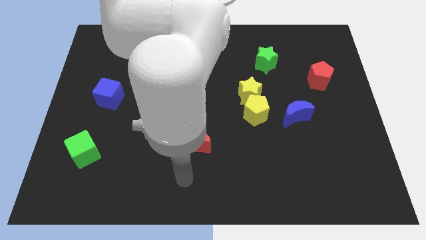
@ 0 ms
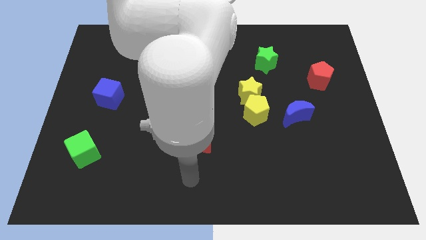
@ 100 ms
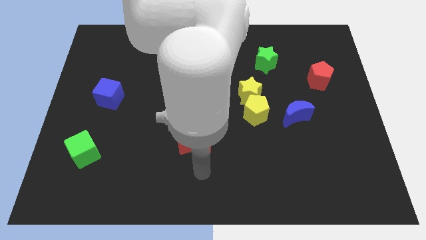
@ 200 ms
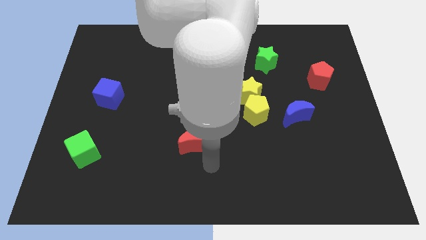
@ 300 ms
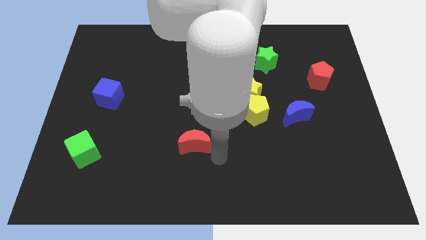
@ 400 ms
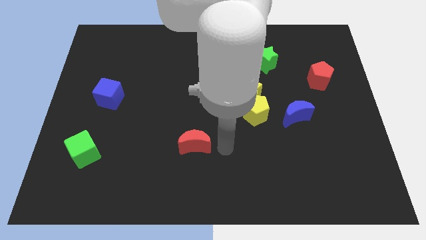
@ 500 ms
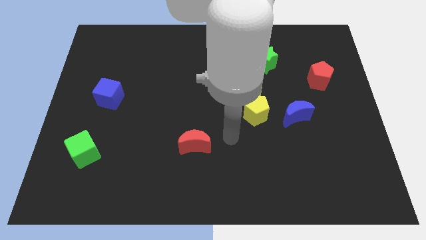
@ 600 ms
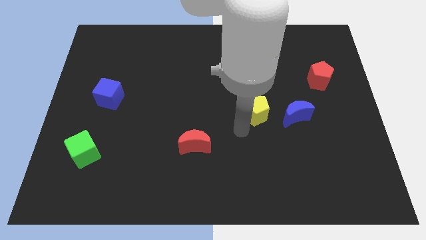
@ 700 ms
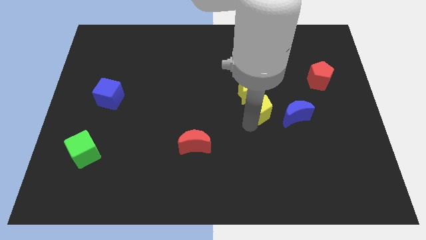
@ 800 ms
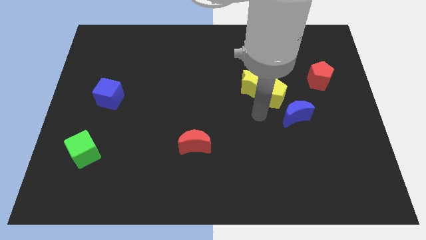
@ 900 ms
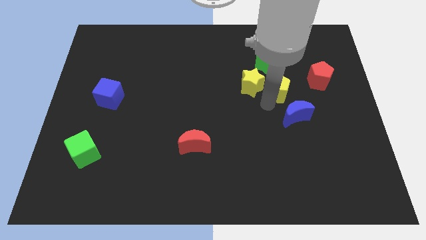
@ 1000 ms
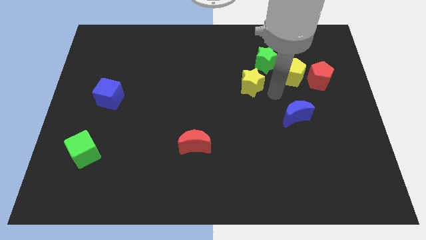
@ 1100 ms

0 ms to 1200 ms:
separate the yellow star from the yellow pentagon

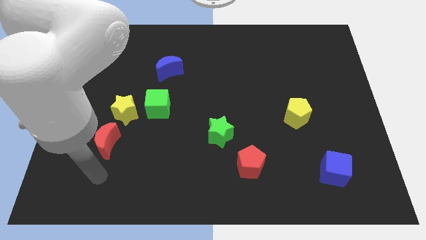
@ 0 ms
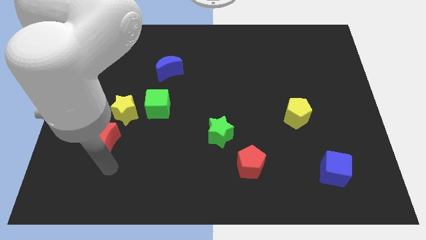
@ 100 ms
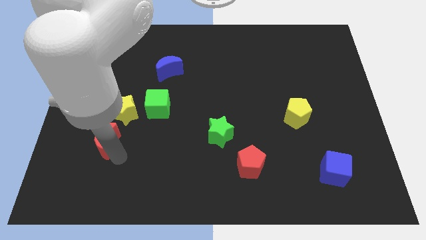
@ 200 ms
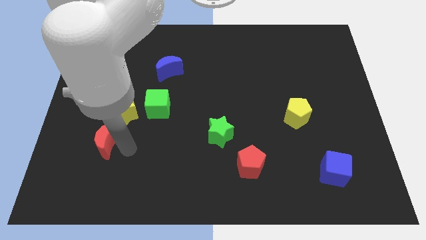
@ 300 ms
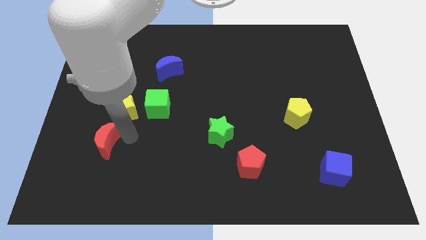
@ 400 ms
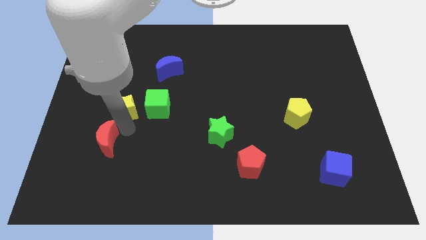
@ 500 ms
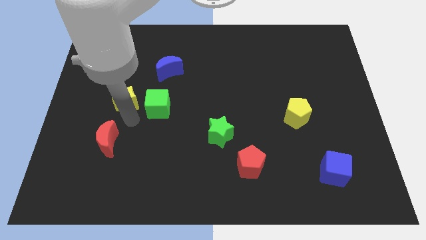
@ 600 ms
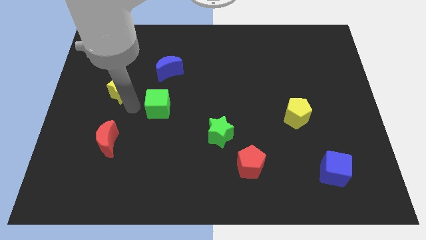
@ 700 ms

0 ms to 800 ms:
separate the green cube from the yellow star

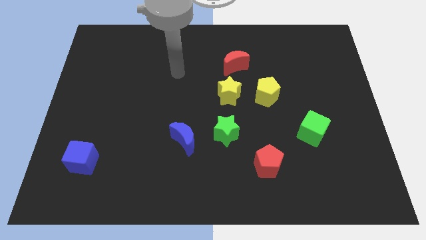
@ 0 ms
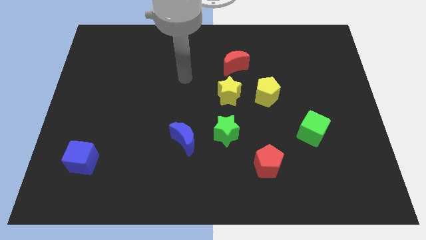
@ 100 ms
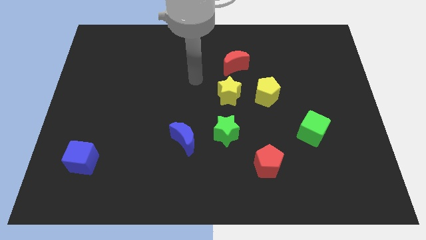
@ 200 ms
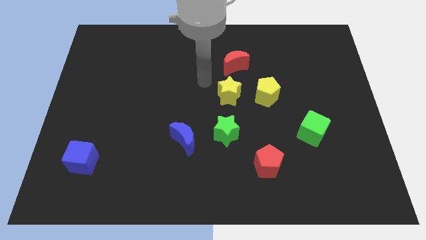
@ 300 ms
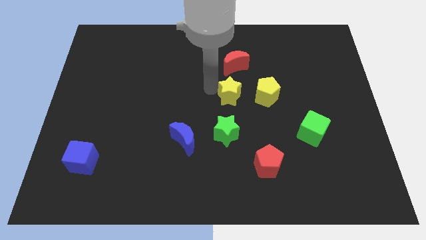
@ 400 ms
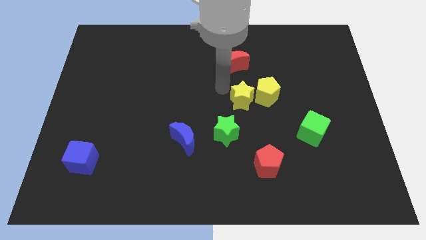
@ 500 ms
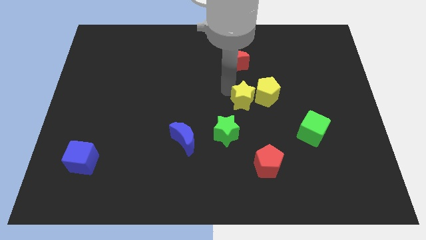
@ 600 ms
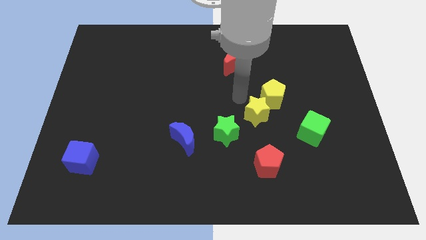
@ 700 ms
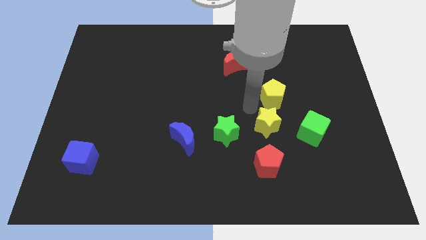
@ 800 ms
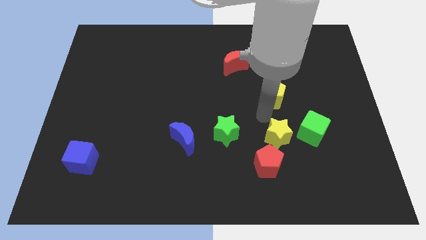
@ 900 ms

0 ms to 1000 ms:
separate the yellow pentagon from the yellow star

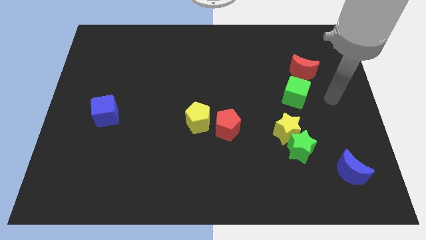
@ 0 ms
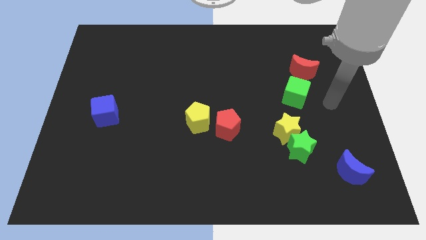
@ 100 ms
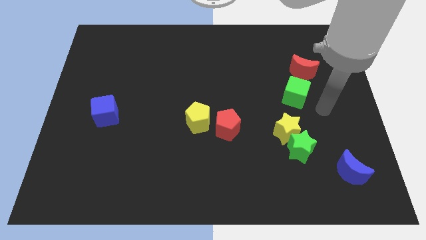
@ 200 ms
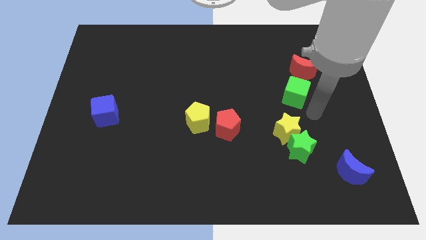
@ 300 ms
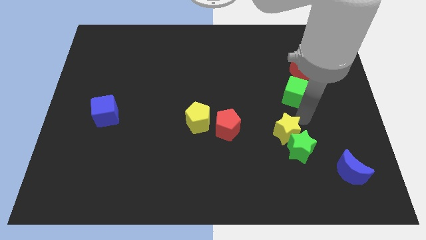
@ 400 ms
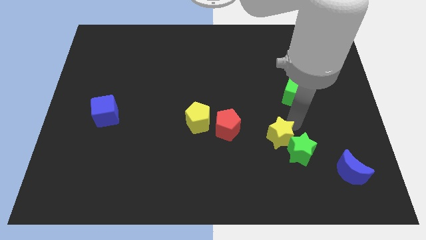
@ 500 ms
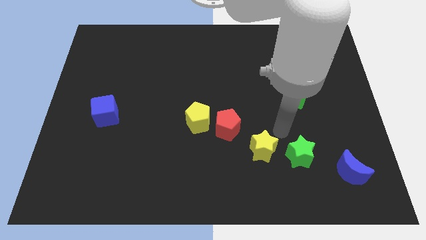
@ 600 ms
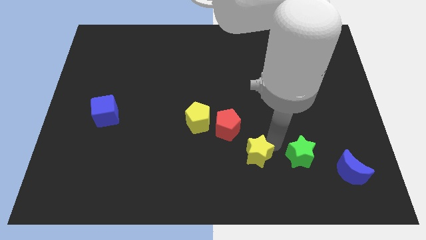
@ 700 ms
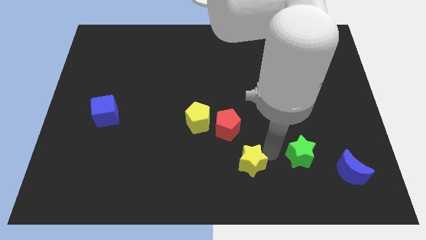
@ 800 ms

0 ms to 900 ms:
separate the green star from the yellow star

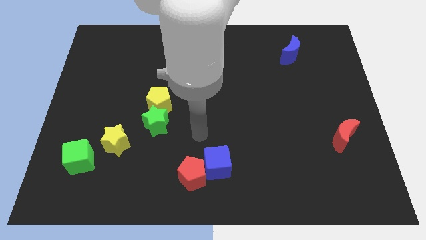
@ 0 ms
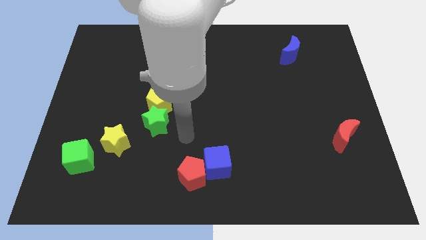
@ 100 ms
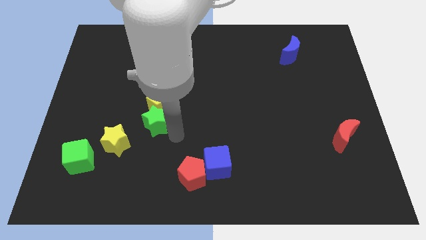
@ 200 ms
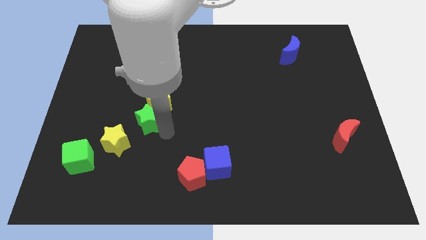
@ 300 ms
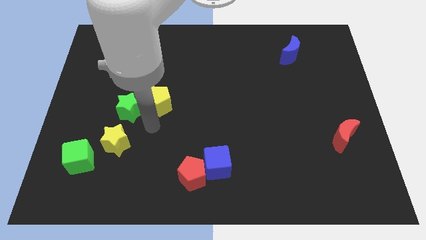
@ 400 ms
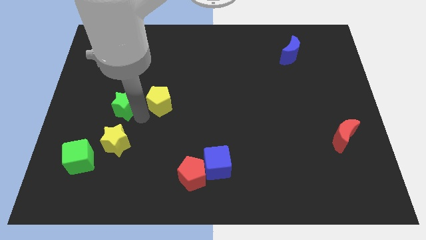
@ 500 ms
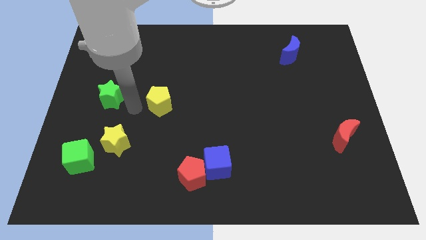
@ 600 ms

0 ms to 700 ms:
separate the yellow pentagon from the green star

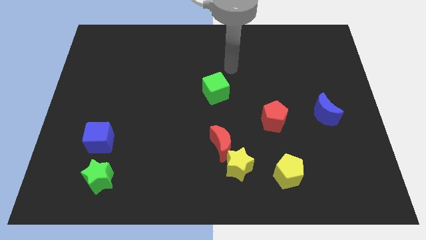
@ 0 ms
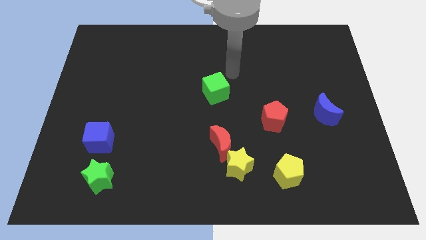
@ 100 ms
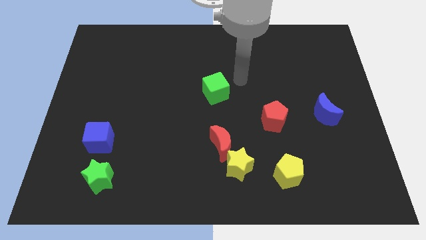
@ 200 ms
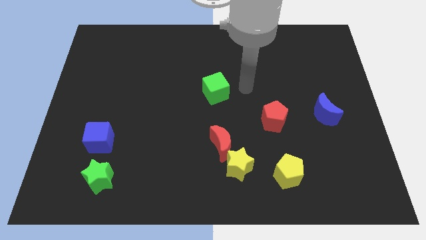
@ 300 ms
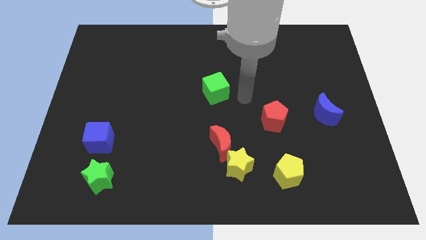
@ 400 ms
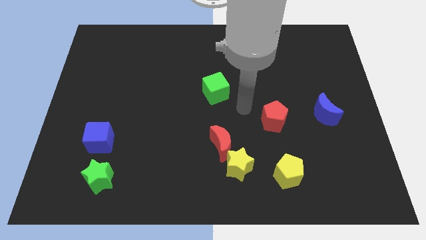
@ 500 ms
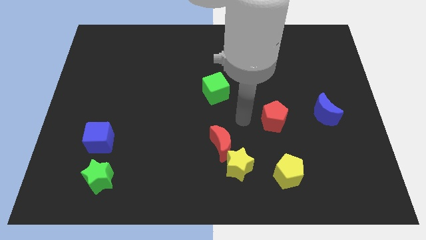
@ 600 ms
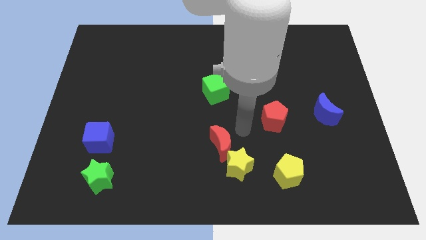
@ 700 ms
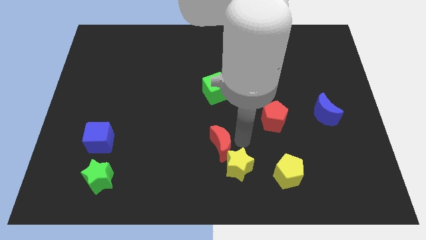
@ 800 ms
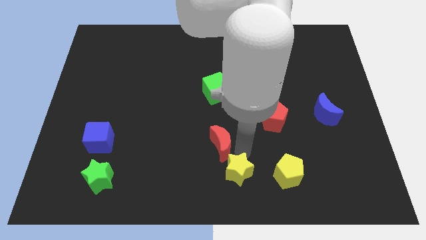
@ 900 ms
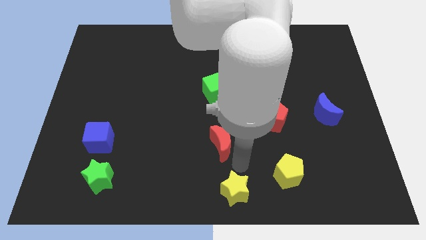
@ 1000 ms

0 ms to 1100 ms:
separate the red moon from the yellow star

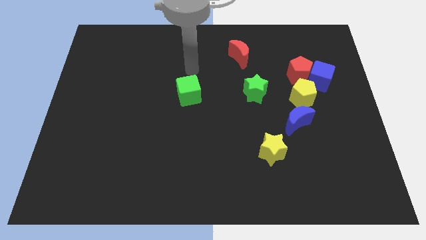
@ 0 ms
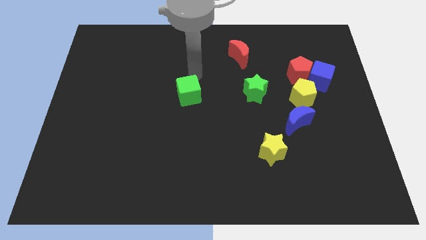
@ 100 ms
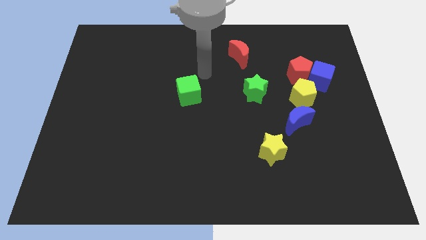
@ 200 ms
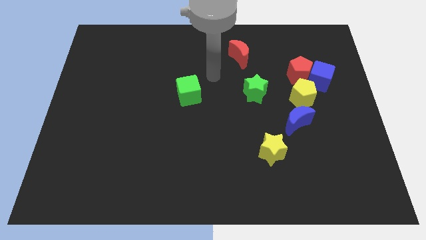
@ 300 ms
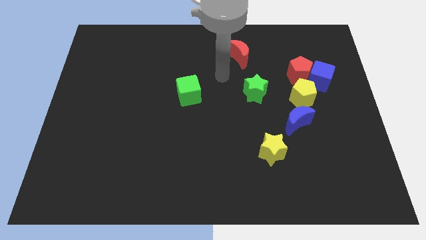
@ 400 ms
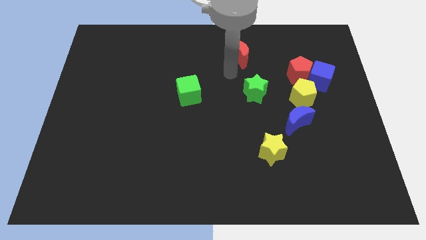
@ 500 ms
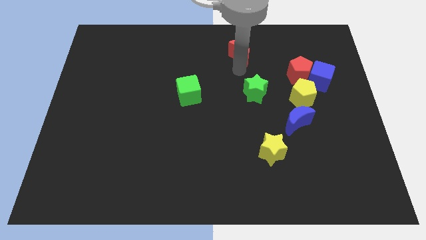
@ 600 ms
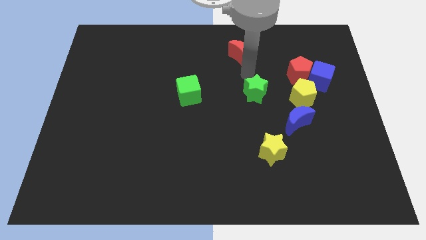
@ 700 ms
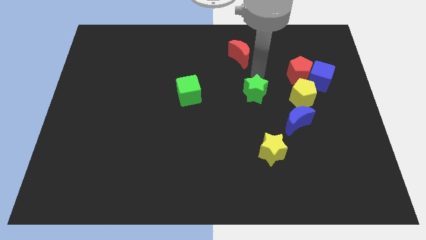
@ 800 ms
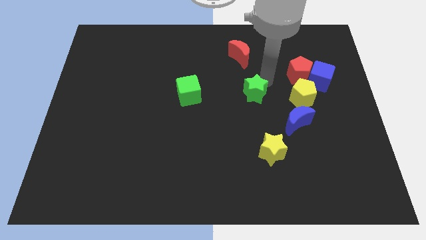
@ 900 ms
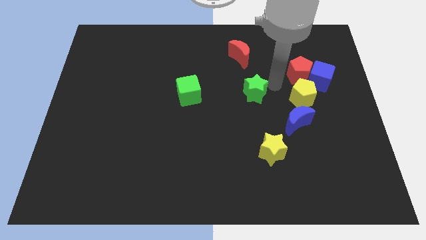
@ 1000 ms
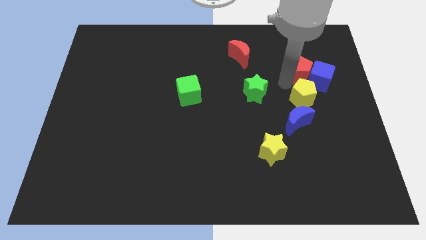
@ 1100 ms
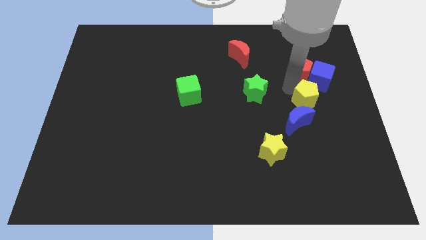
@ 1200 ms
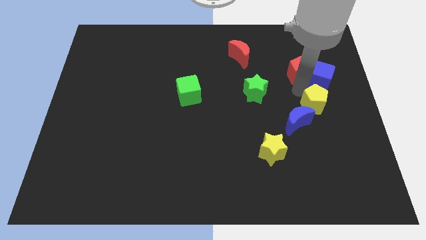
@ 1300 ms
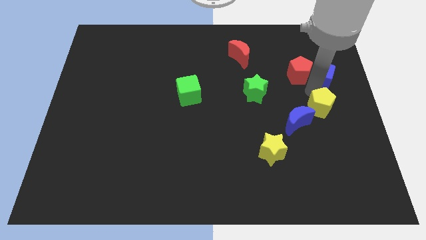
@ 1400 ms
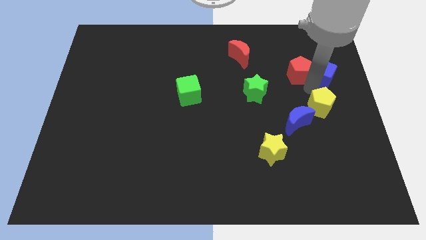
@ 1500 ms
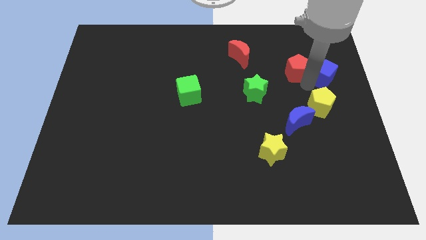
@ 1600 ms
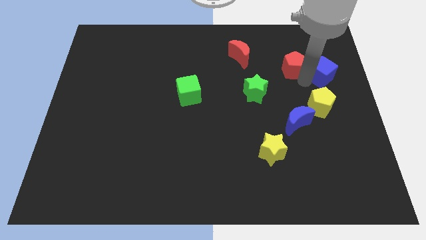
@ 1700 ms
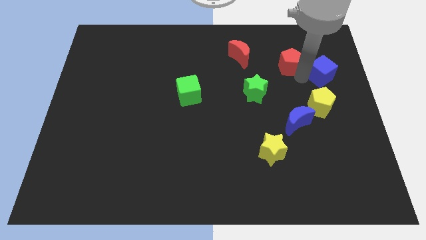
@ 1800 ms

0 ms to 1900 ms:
move the red pentagon away from the blue cube and yellow pentagon

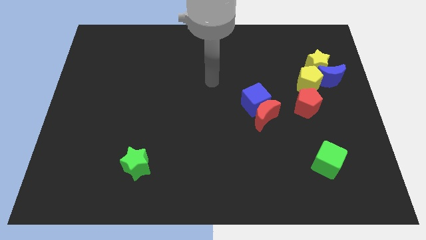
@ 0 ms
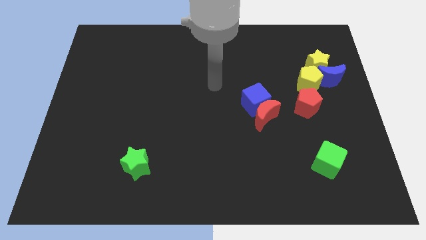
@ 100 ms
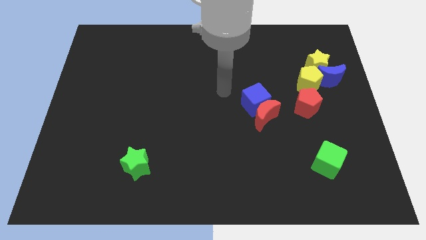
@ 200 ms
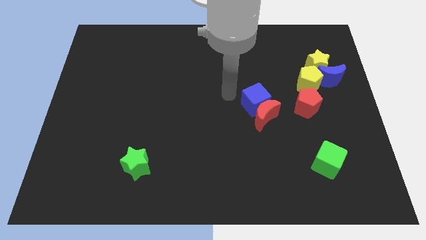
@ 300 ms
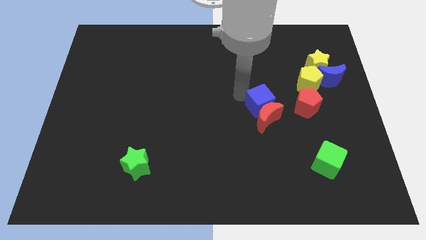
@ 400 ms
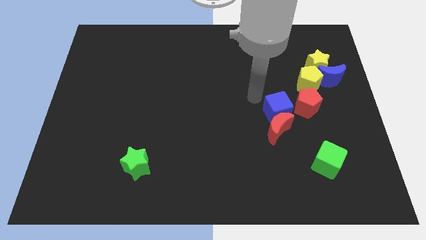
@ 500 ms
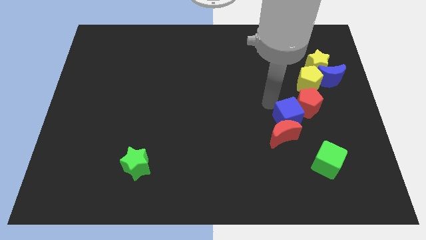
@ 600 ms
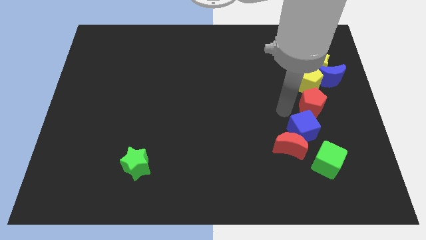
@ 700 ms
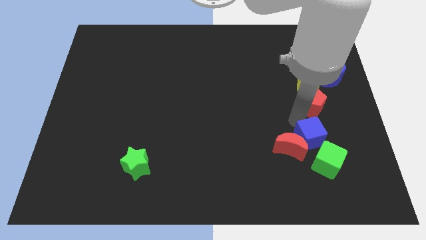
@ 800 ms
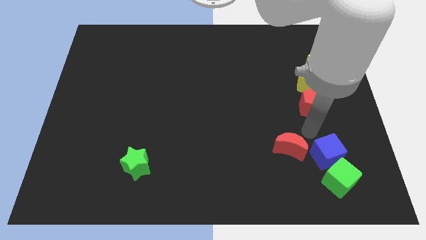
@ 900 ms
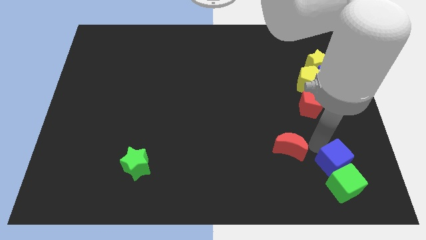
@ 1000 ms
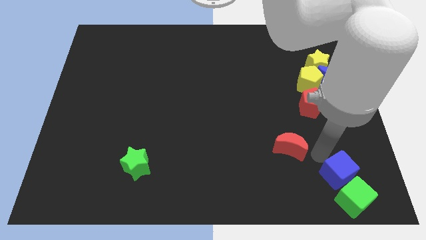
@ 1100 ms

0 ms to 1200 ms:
move the red moon away from the blue cube

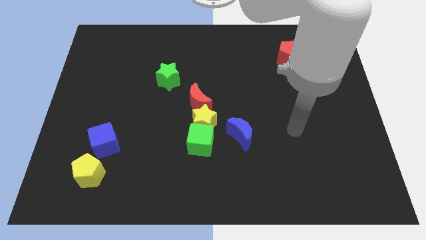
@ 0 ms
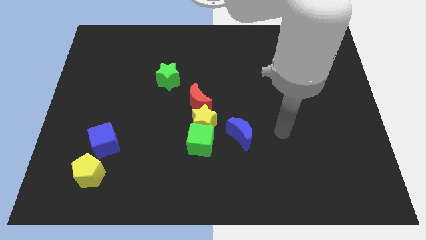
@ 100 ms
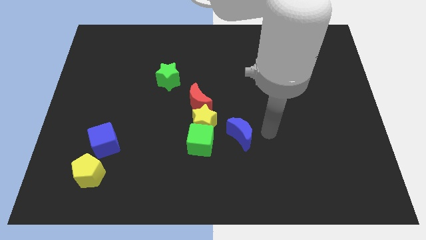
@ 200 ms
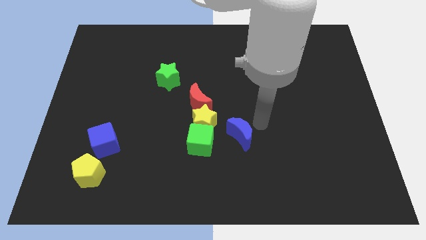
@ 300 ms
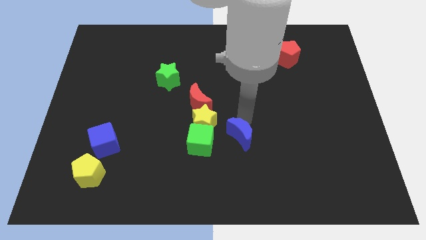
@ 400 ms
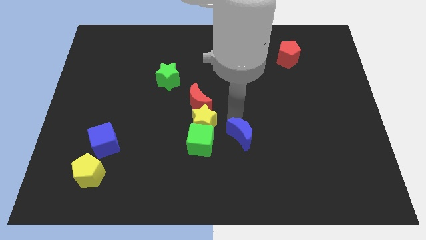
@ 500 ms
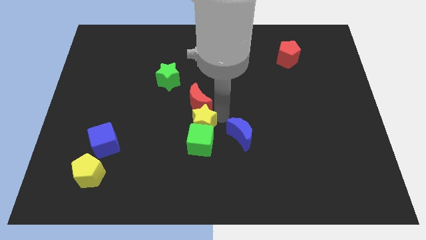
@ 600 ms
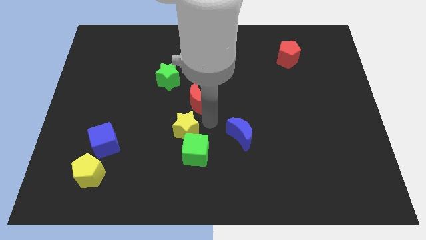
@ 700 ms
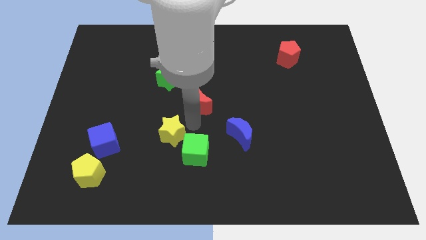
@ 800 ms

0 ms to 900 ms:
move the red moon away from the yellow star
